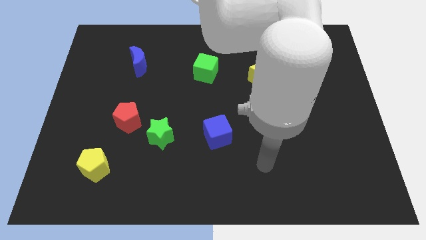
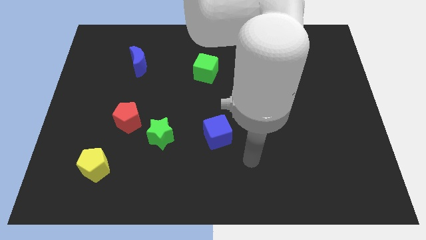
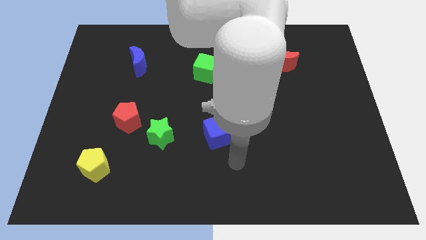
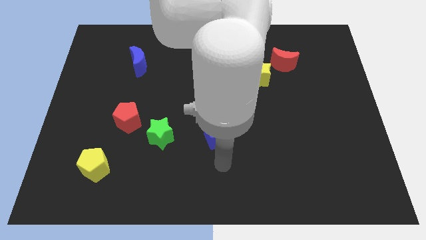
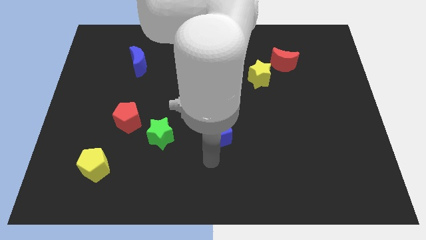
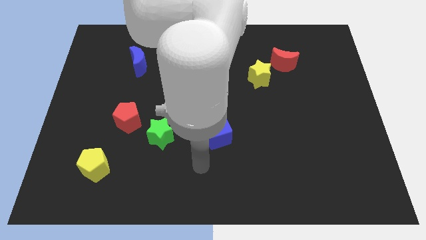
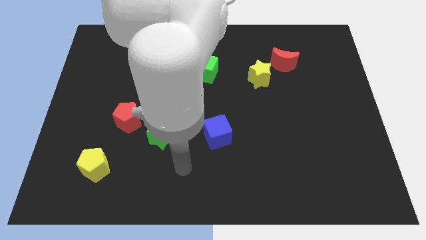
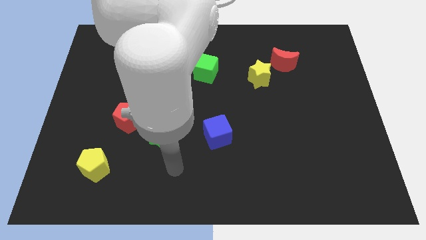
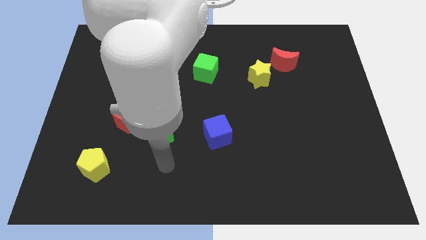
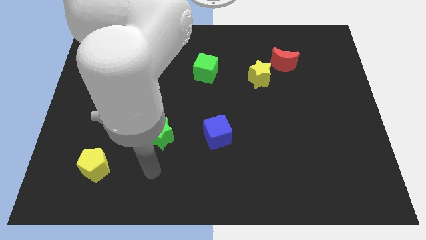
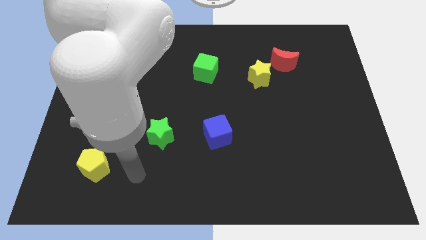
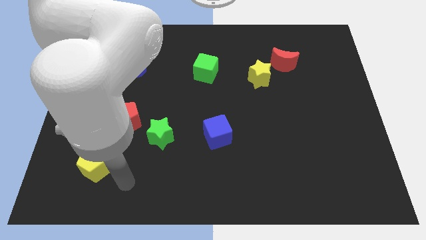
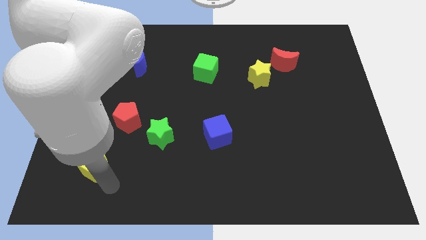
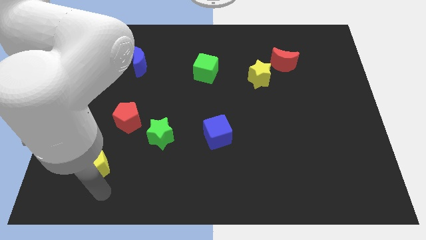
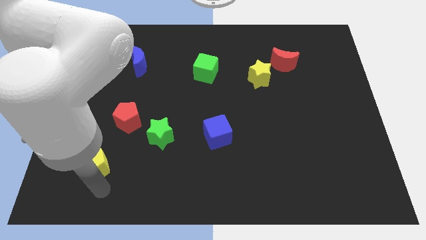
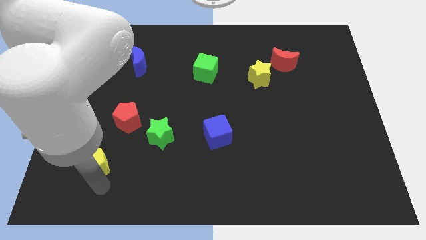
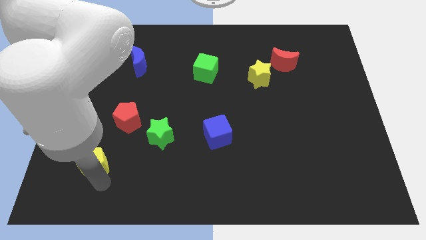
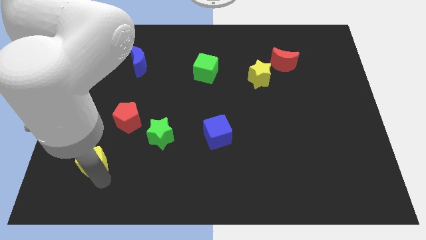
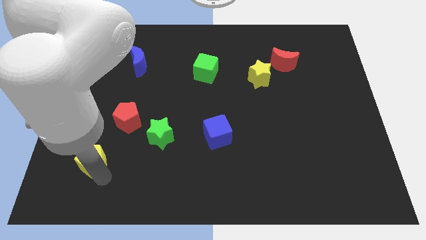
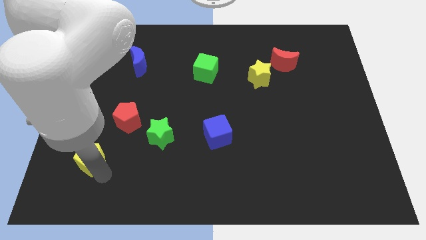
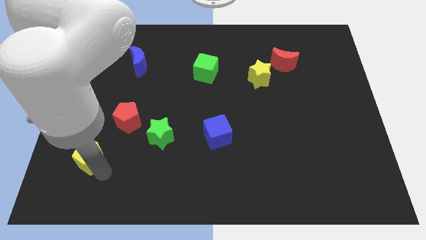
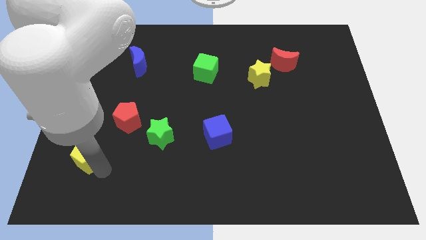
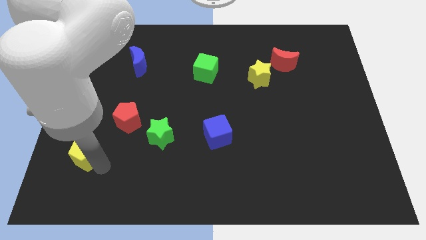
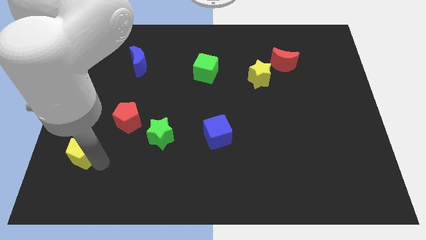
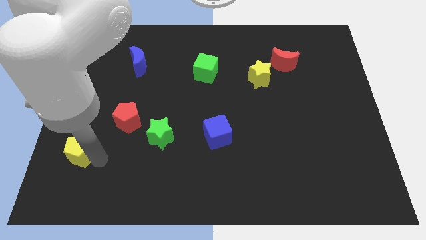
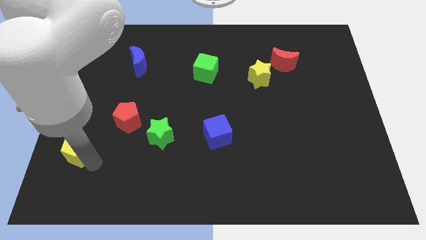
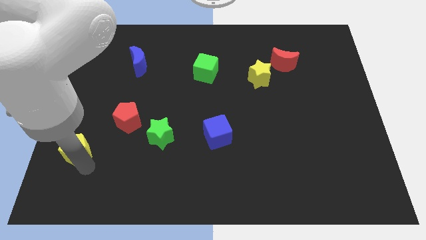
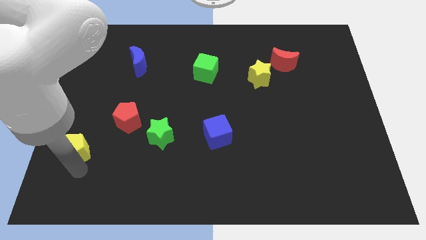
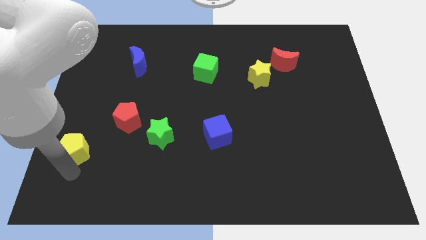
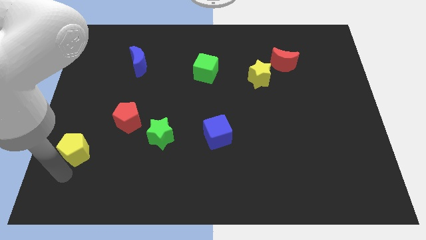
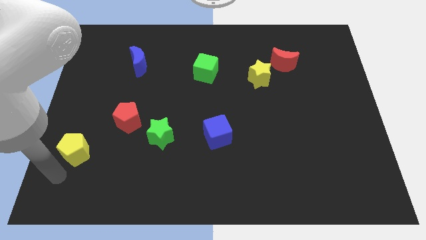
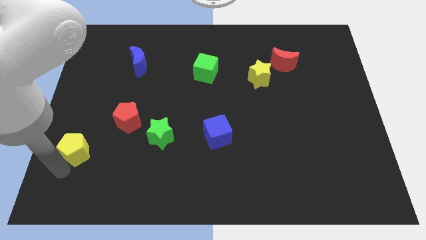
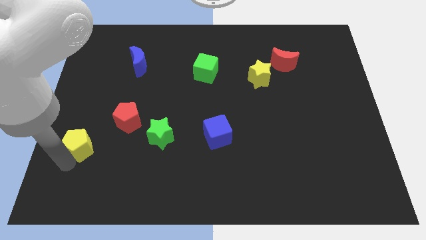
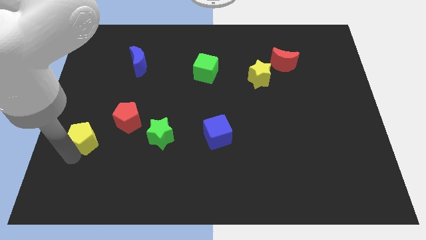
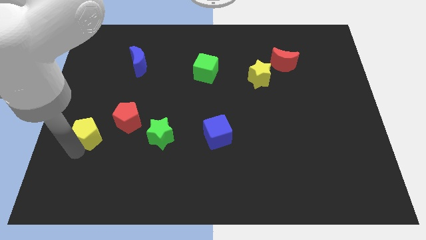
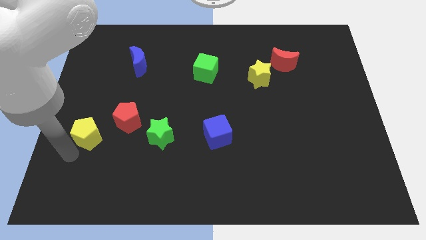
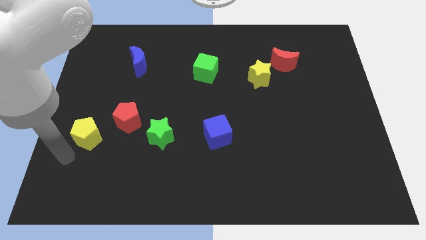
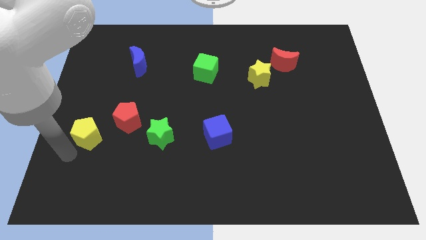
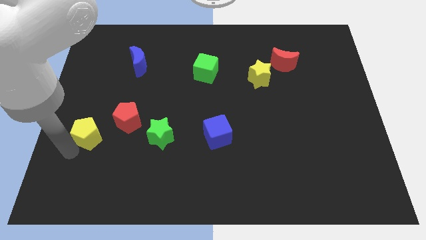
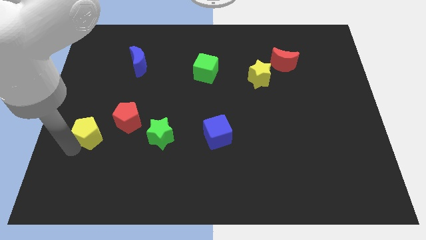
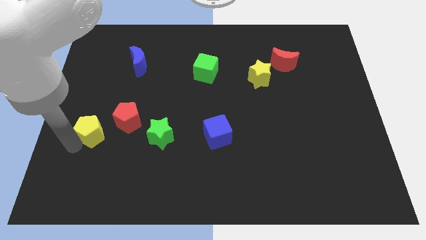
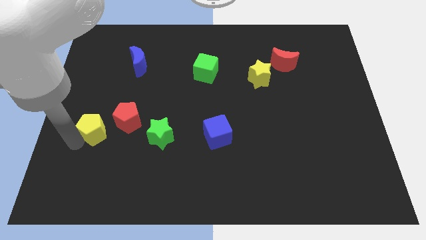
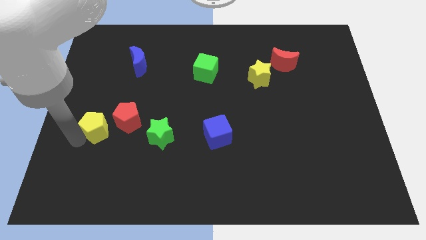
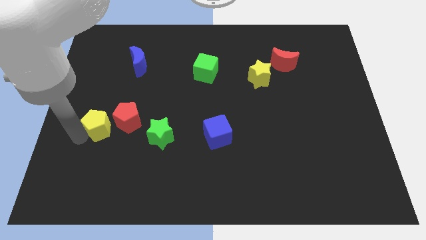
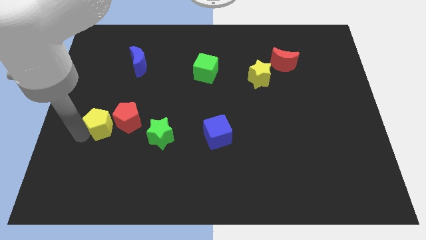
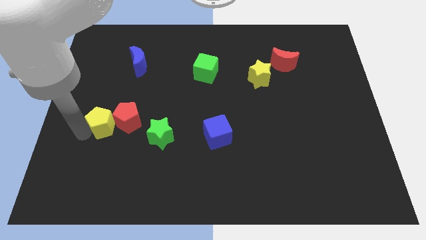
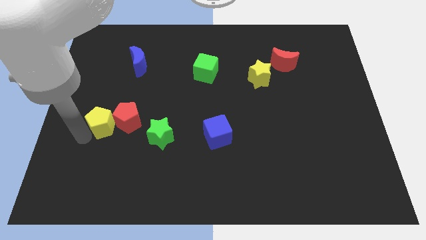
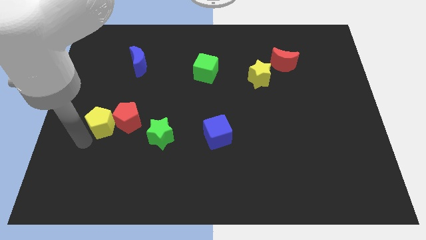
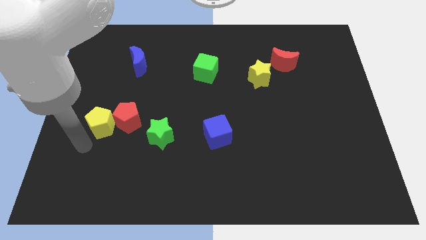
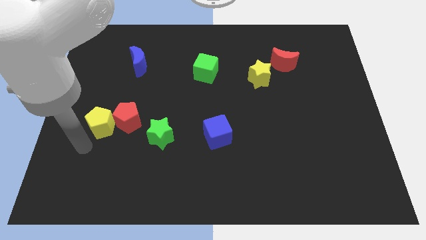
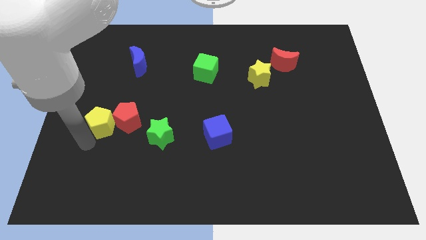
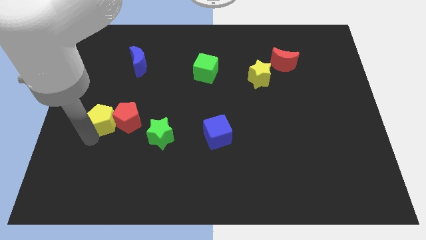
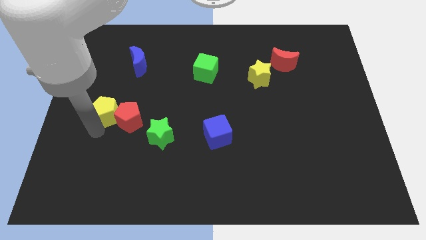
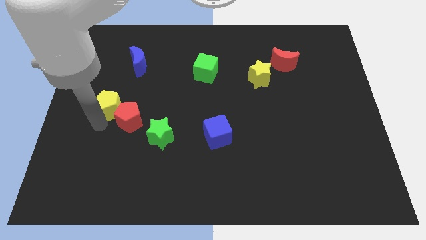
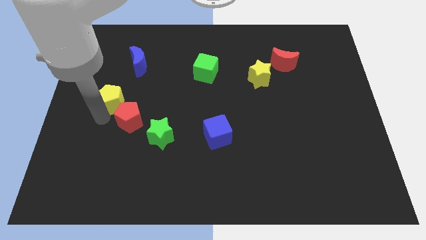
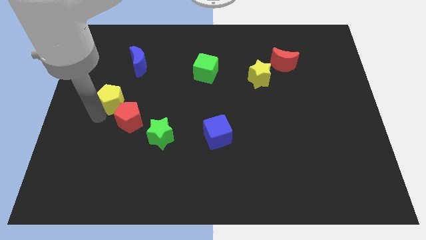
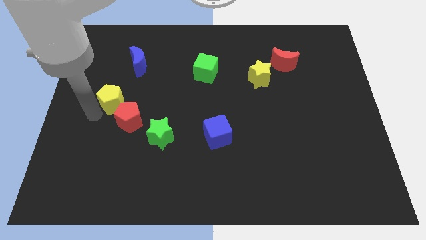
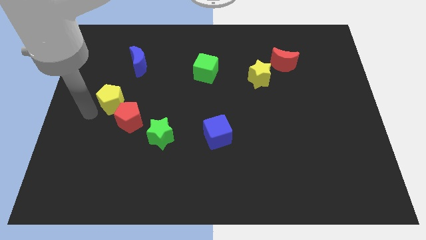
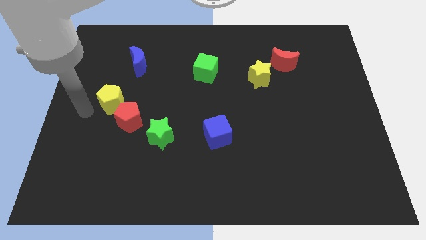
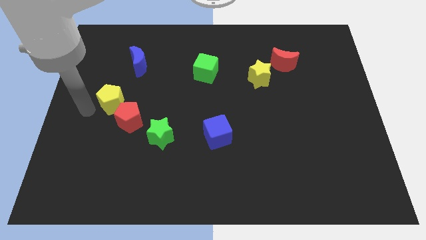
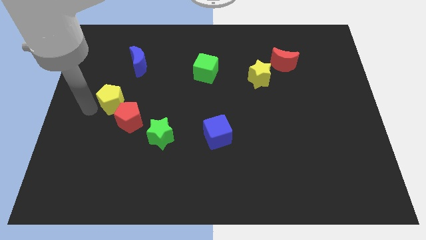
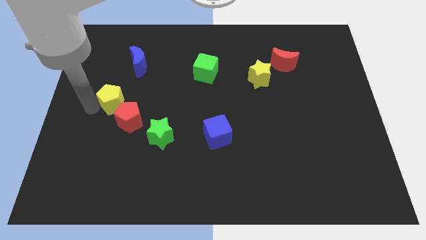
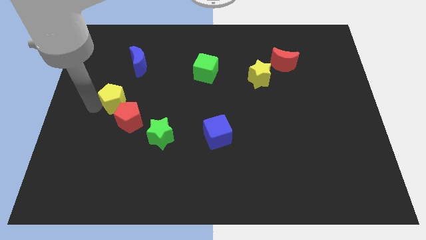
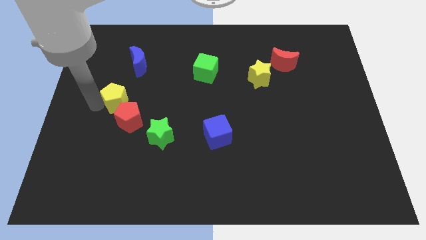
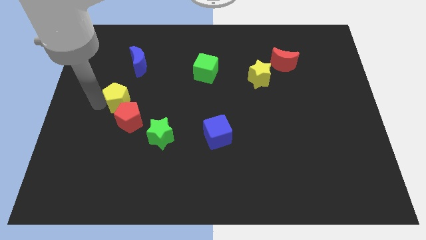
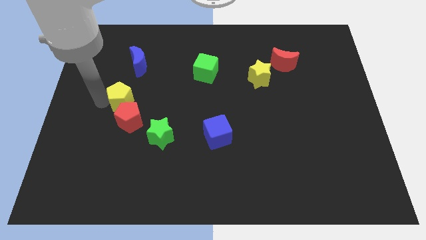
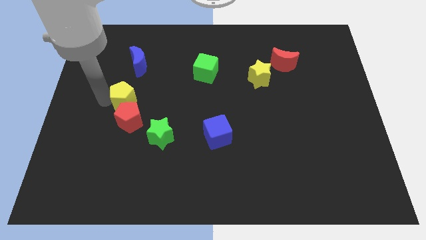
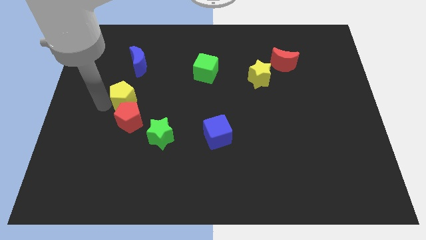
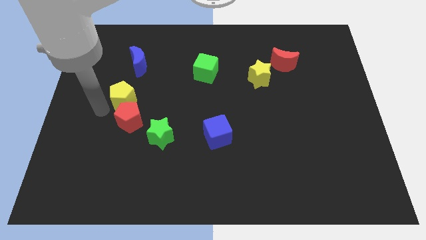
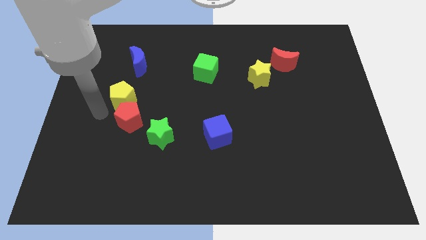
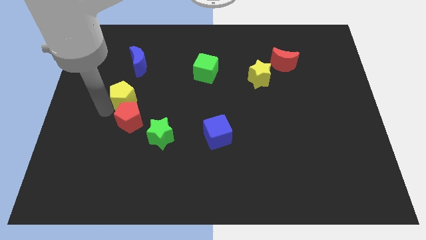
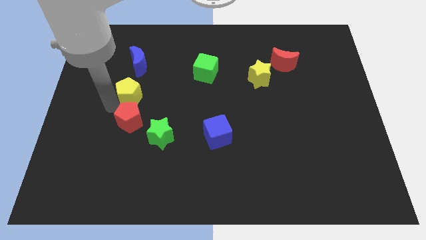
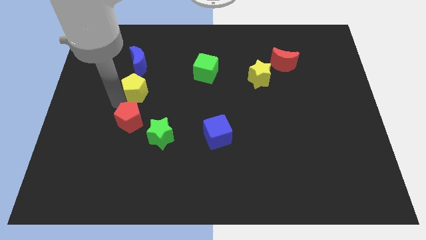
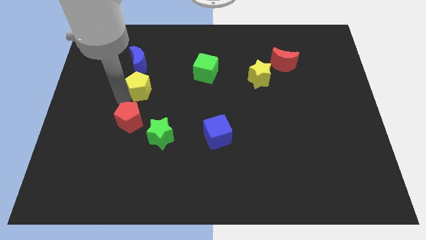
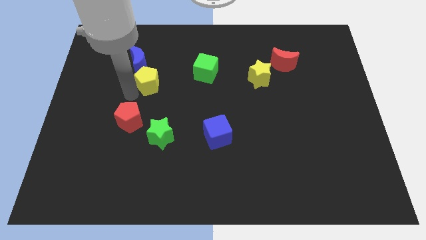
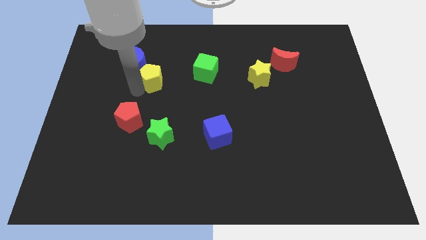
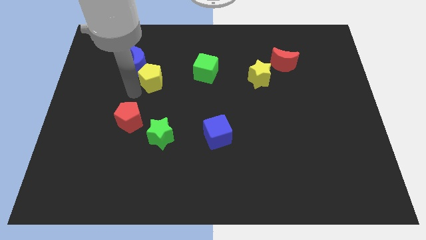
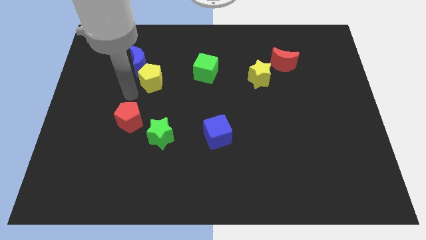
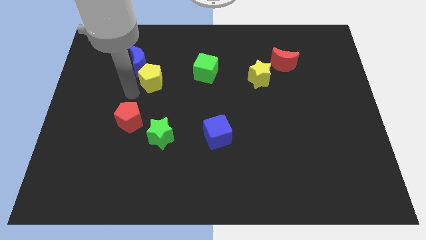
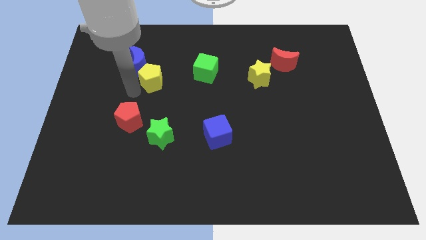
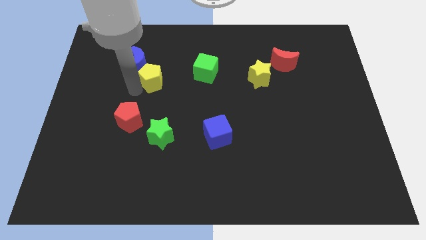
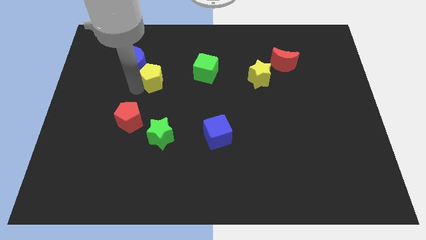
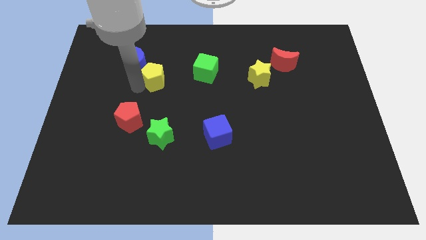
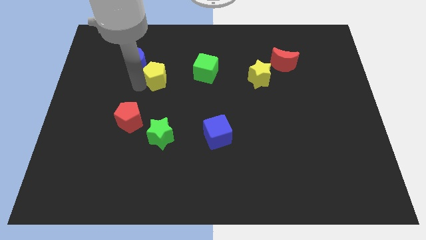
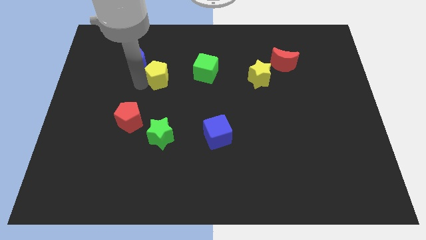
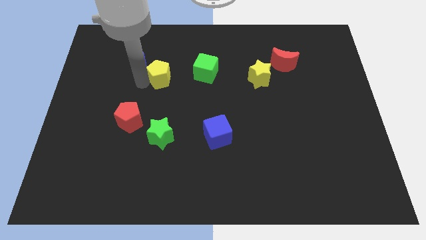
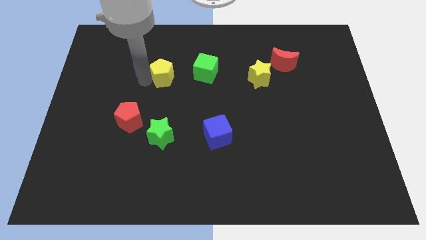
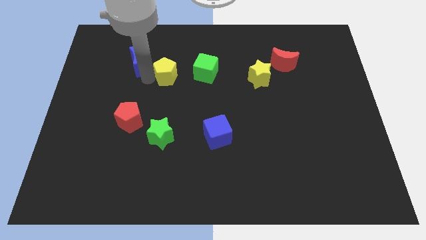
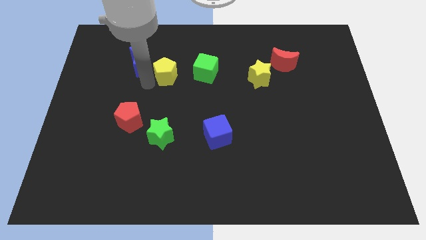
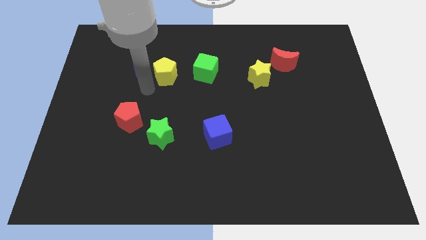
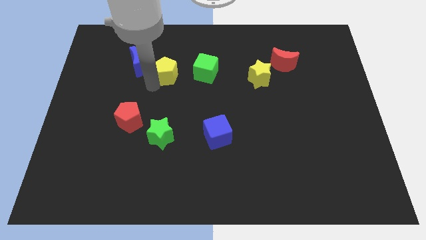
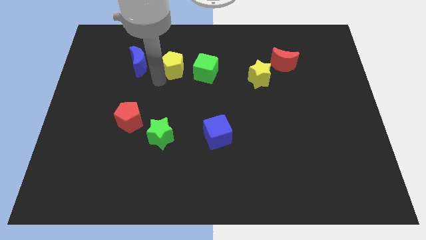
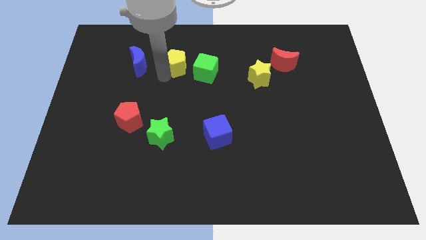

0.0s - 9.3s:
put the yellow pentagon to the top left side of the green cube
